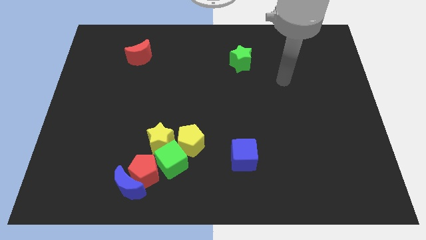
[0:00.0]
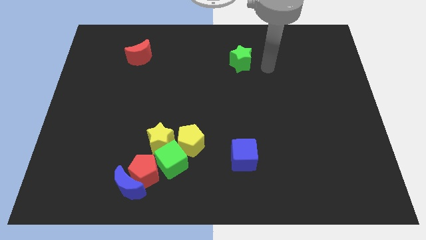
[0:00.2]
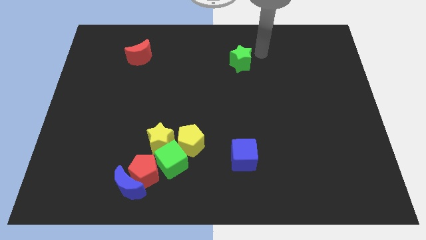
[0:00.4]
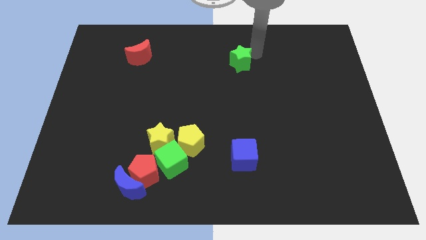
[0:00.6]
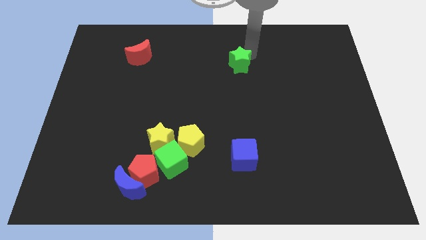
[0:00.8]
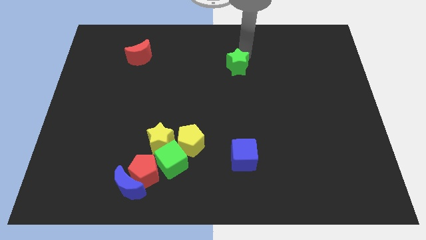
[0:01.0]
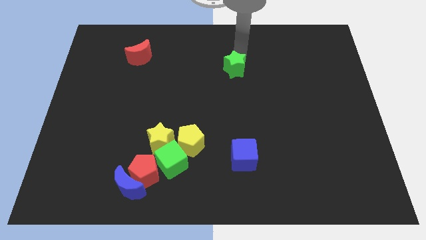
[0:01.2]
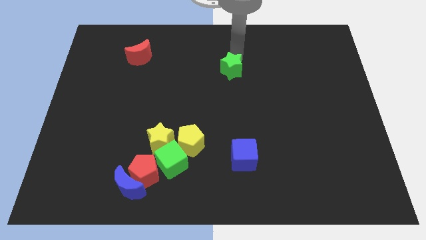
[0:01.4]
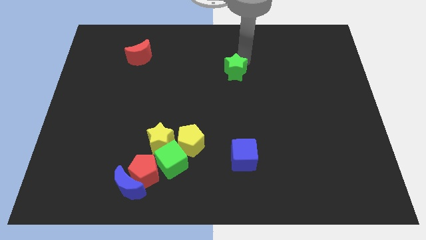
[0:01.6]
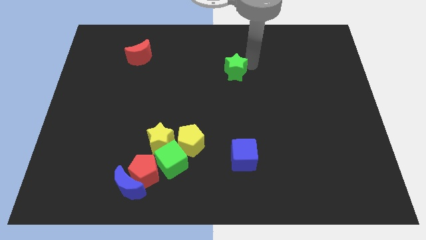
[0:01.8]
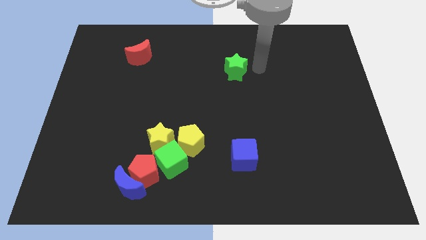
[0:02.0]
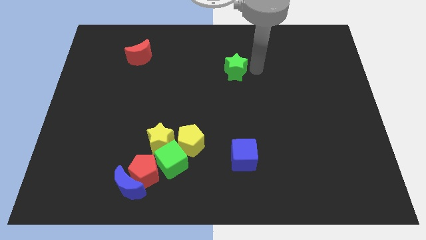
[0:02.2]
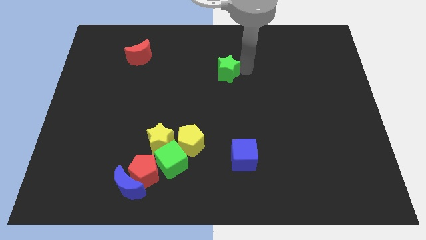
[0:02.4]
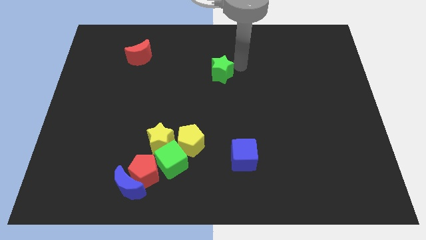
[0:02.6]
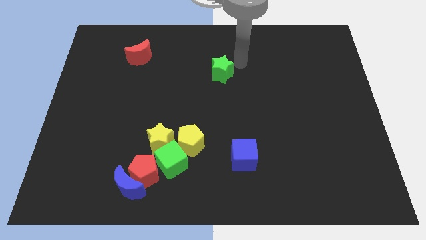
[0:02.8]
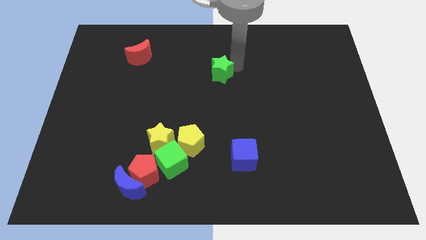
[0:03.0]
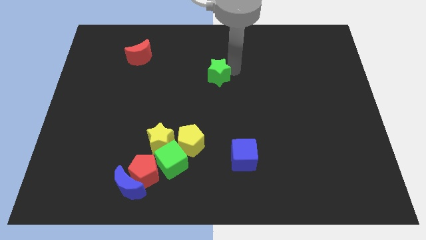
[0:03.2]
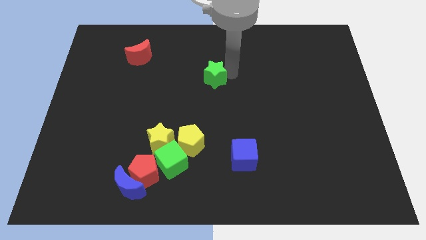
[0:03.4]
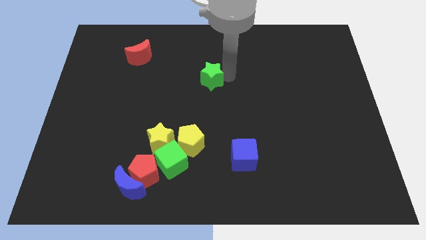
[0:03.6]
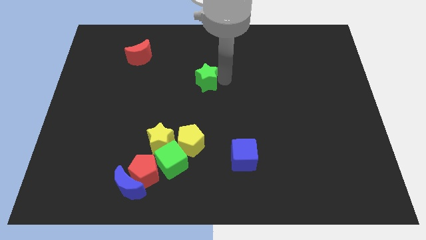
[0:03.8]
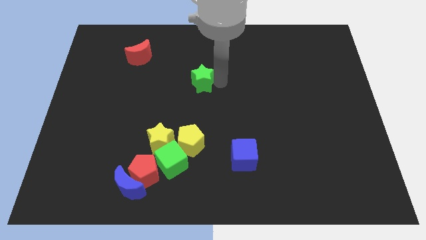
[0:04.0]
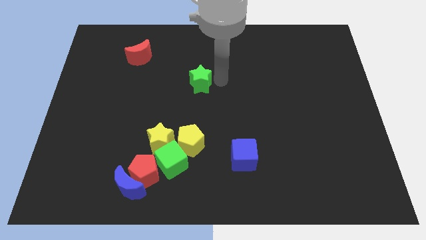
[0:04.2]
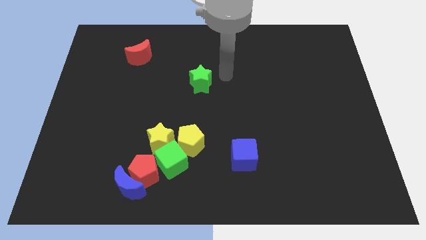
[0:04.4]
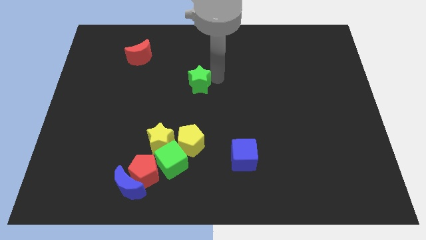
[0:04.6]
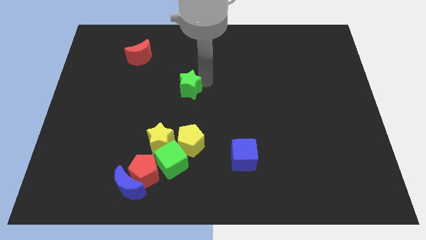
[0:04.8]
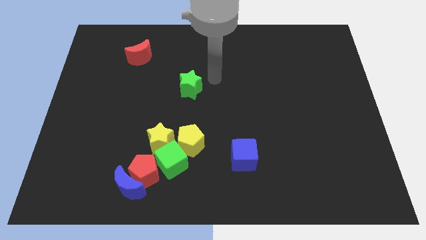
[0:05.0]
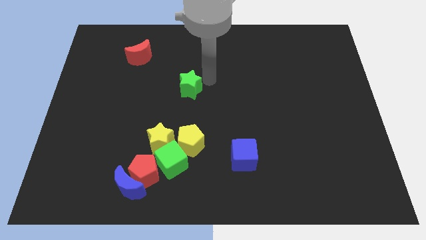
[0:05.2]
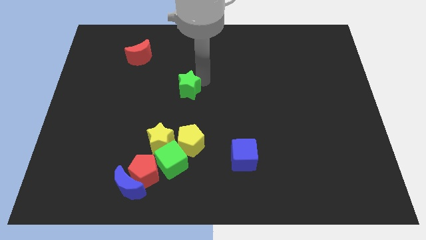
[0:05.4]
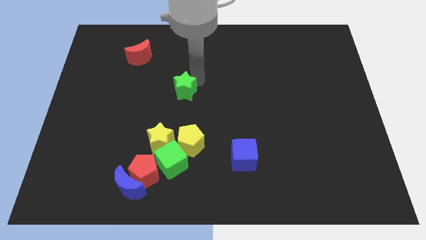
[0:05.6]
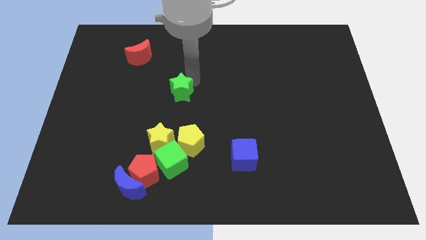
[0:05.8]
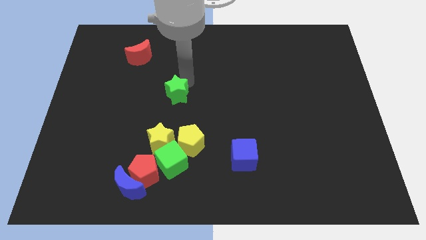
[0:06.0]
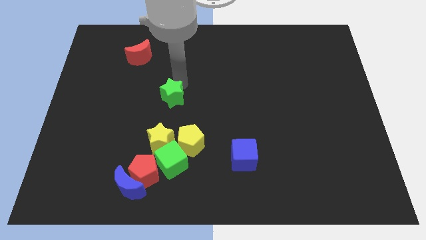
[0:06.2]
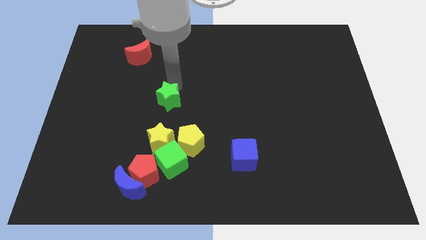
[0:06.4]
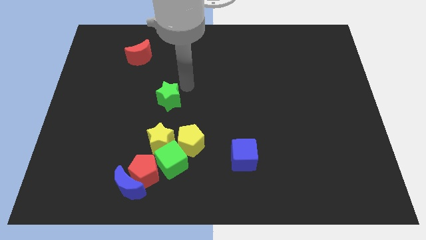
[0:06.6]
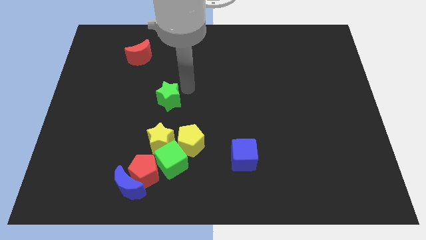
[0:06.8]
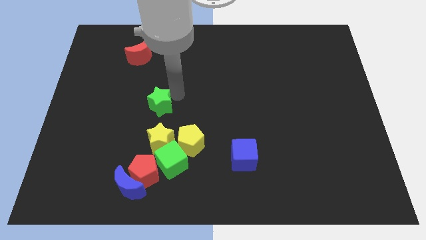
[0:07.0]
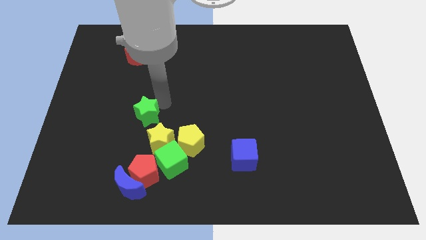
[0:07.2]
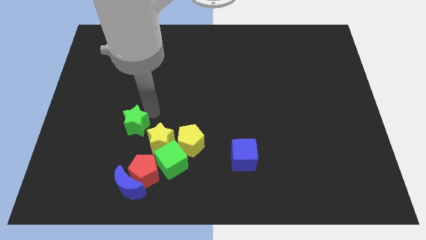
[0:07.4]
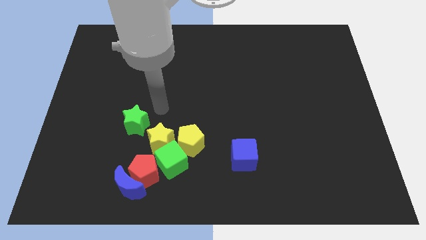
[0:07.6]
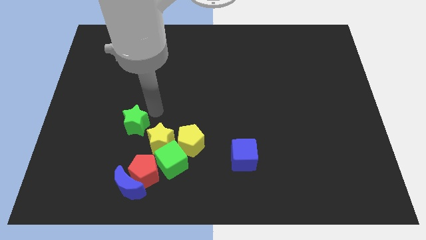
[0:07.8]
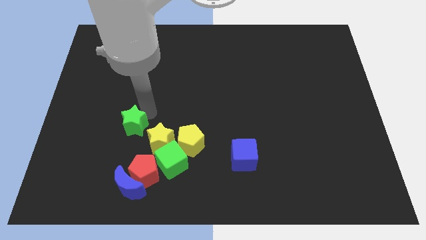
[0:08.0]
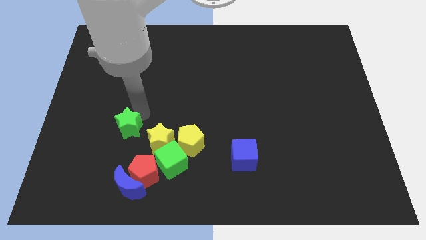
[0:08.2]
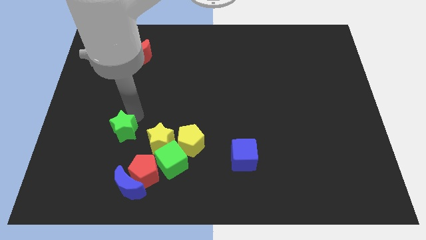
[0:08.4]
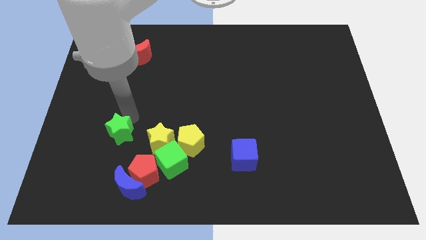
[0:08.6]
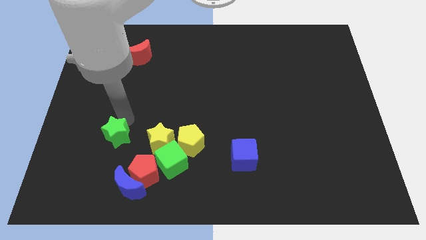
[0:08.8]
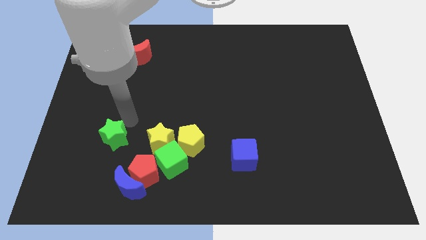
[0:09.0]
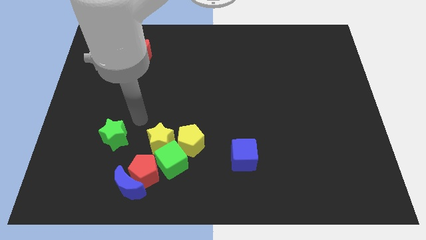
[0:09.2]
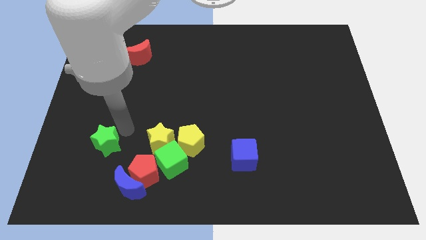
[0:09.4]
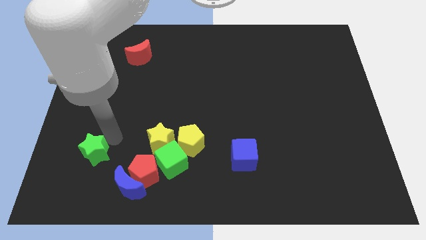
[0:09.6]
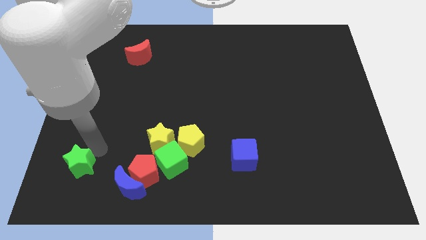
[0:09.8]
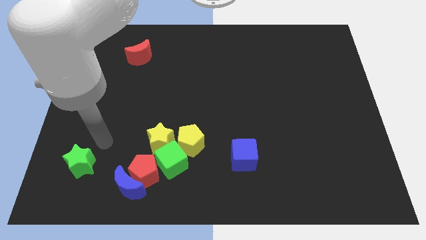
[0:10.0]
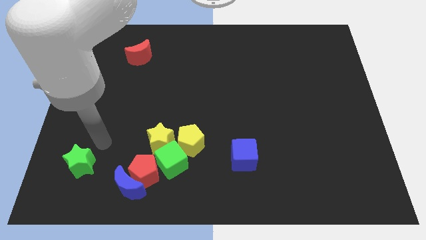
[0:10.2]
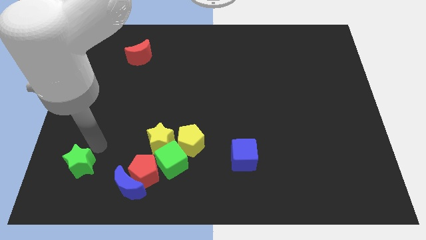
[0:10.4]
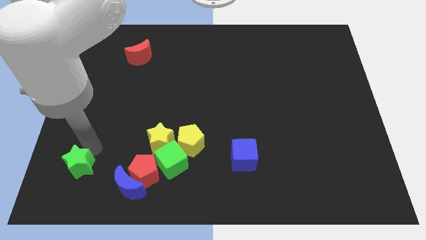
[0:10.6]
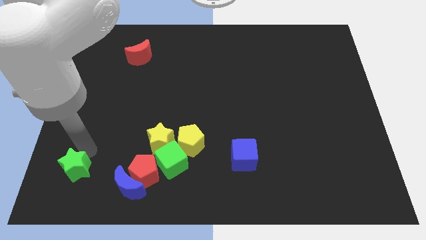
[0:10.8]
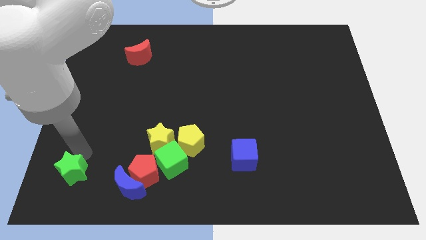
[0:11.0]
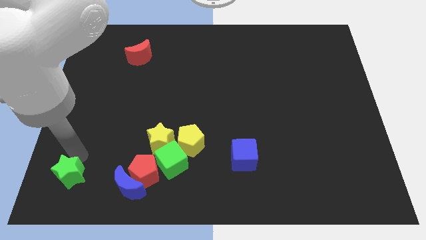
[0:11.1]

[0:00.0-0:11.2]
put the green star to the bottom left

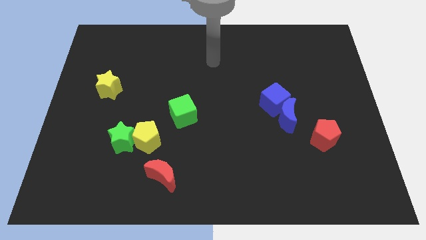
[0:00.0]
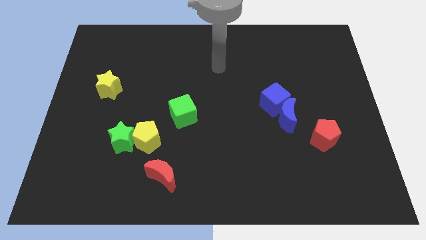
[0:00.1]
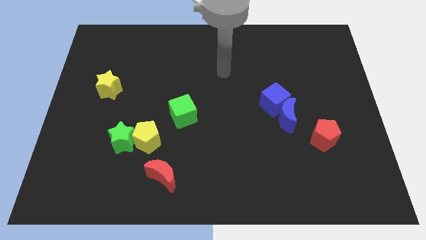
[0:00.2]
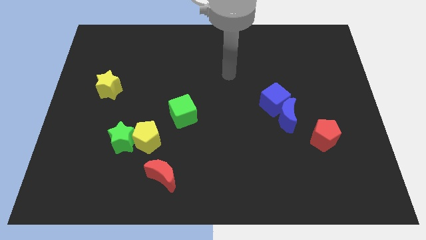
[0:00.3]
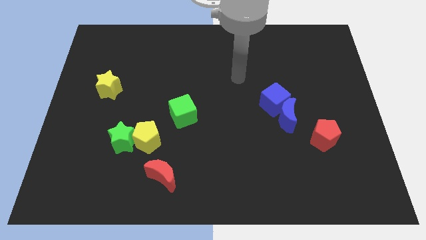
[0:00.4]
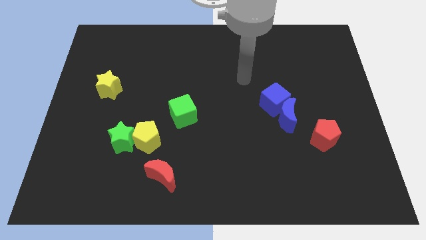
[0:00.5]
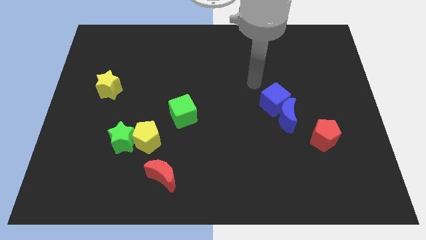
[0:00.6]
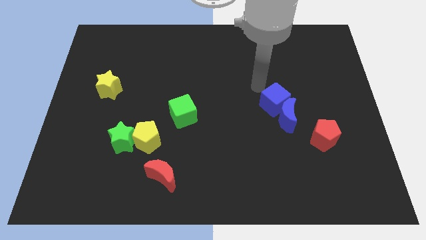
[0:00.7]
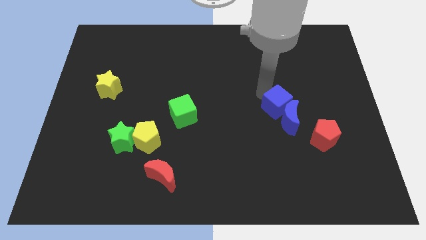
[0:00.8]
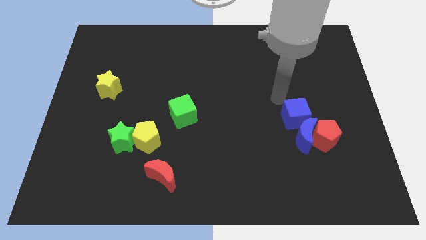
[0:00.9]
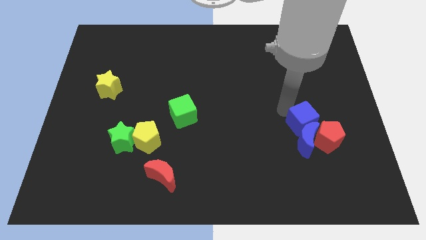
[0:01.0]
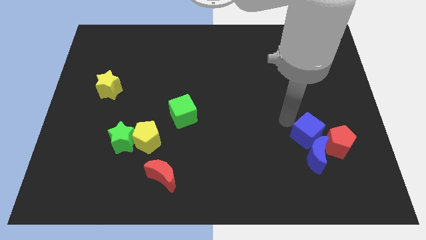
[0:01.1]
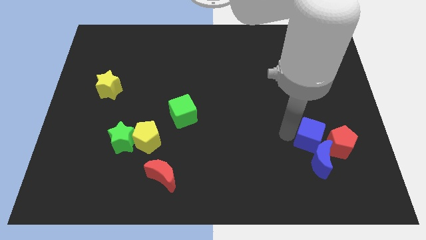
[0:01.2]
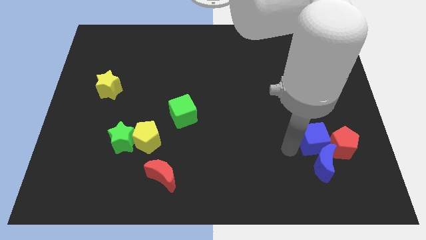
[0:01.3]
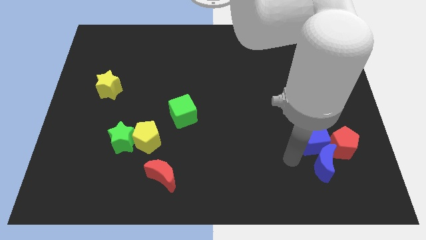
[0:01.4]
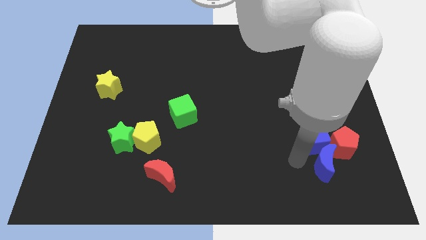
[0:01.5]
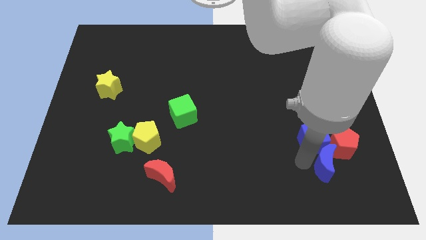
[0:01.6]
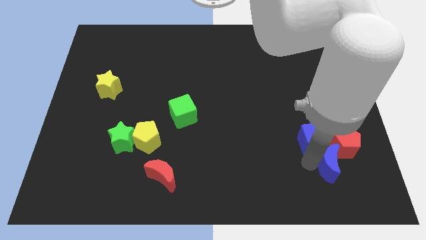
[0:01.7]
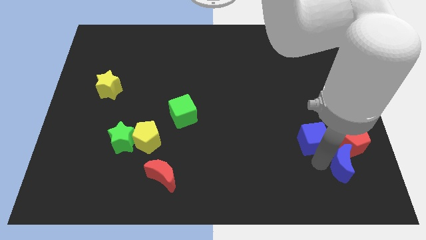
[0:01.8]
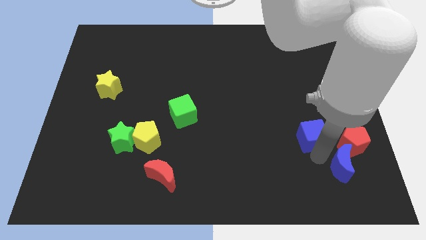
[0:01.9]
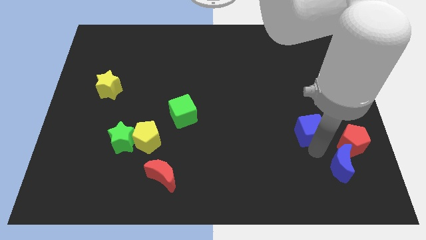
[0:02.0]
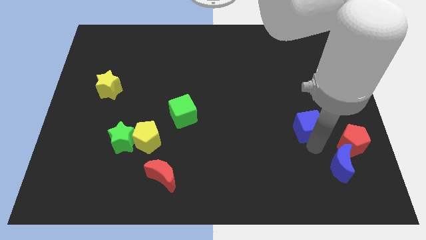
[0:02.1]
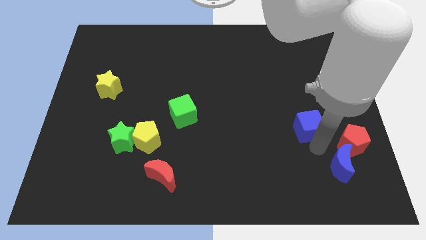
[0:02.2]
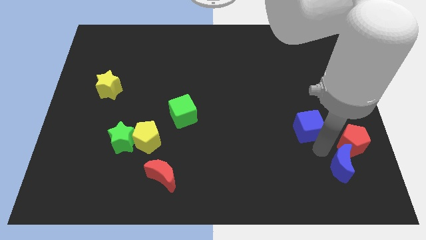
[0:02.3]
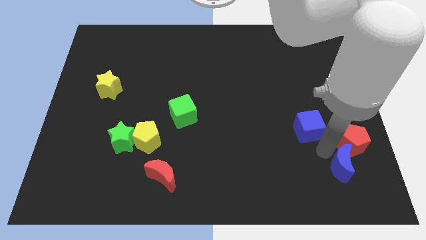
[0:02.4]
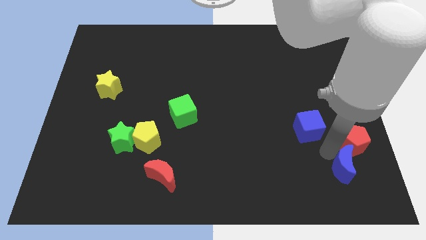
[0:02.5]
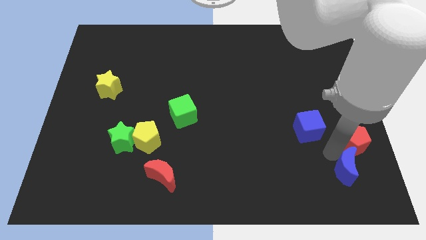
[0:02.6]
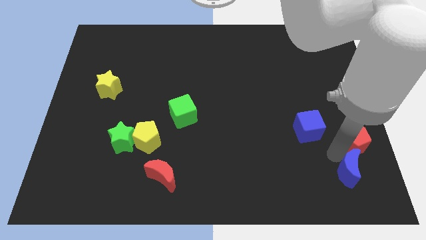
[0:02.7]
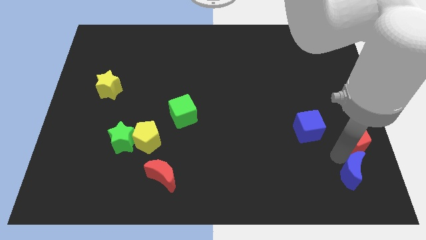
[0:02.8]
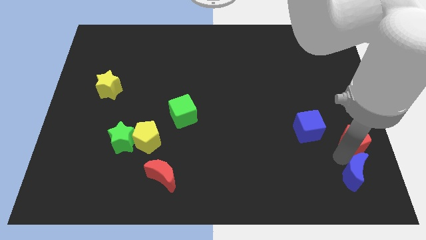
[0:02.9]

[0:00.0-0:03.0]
slide the blue moon to the lower right corner
